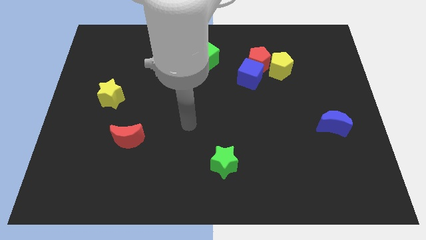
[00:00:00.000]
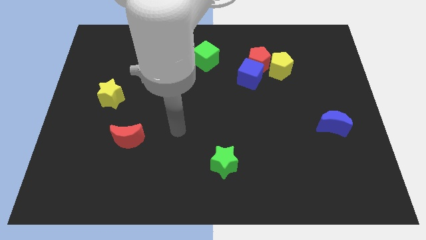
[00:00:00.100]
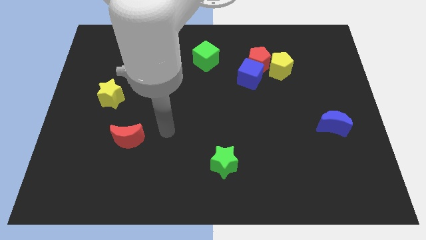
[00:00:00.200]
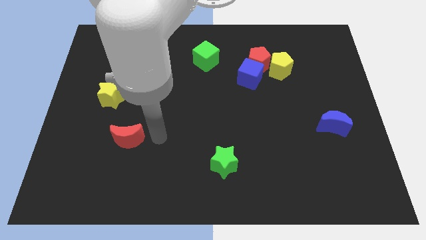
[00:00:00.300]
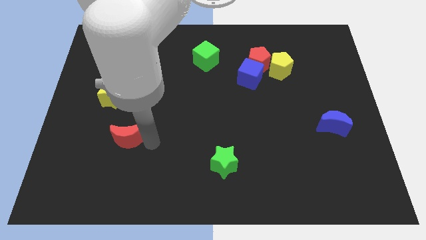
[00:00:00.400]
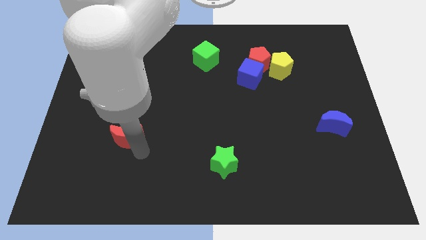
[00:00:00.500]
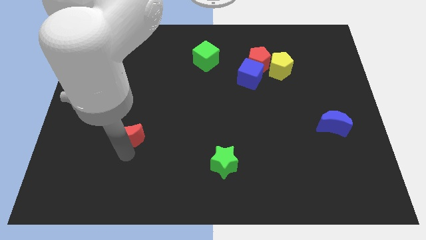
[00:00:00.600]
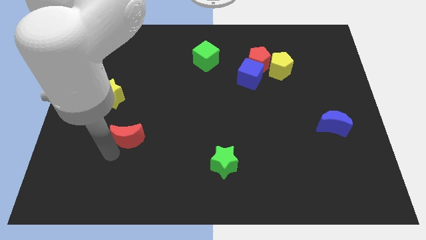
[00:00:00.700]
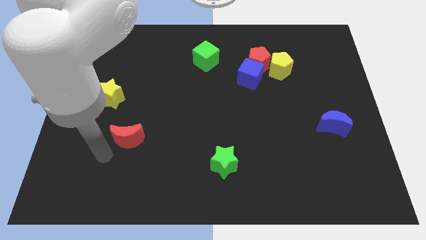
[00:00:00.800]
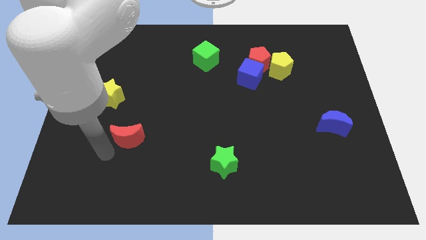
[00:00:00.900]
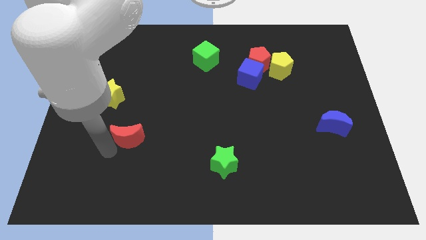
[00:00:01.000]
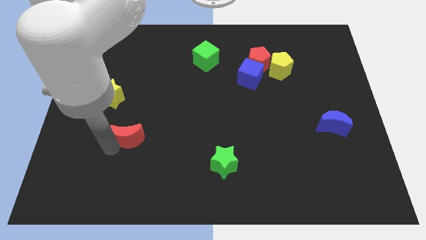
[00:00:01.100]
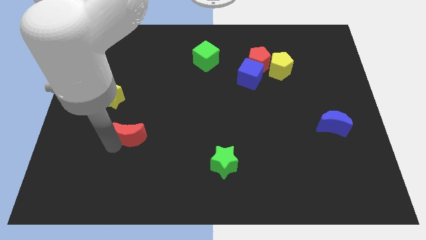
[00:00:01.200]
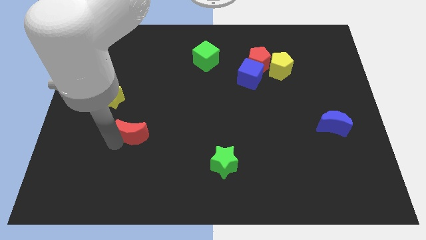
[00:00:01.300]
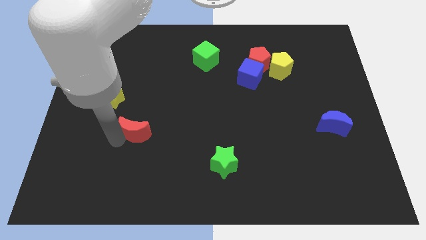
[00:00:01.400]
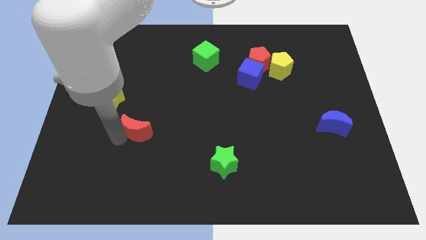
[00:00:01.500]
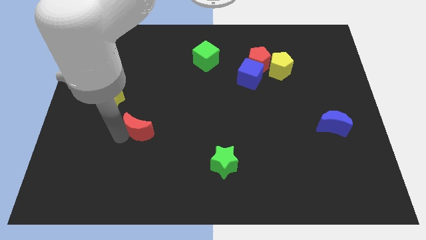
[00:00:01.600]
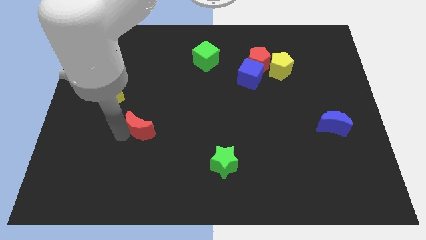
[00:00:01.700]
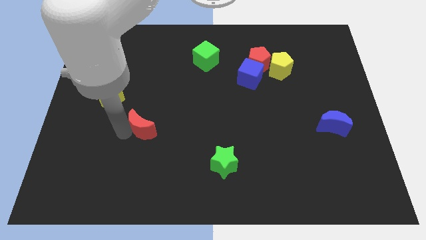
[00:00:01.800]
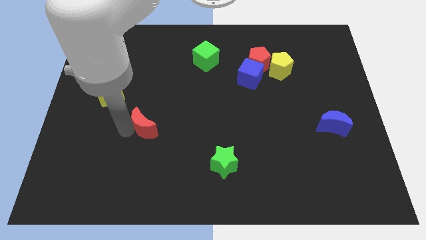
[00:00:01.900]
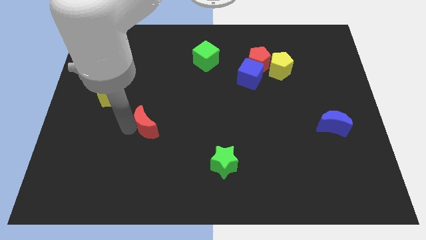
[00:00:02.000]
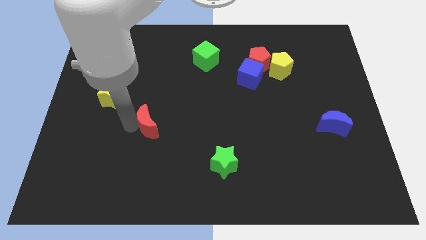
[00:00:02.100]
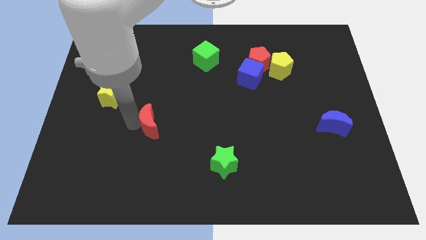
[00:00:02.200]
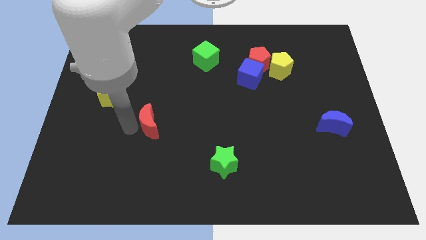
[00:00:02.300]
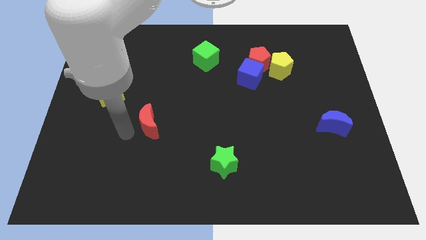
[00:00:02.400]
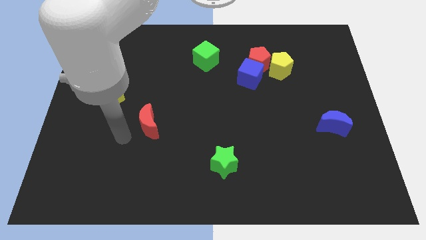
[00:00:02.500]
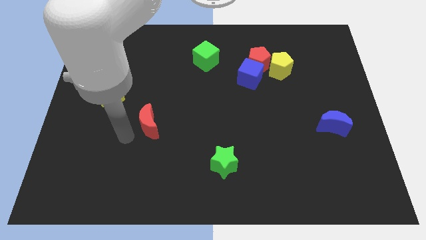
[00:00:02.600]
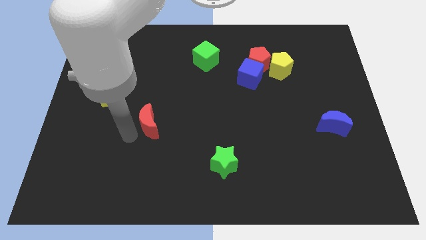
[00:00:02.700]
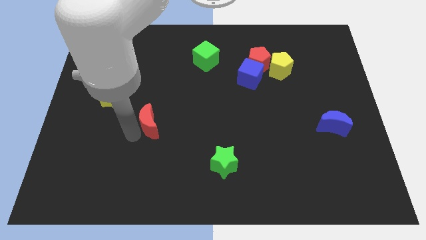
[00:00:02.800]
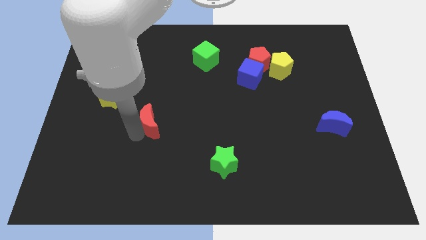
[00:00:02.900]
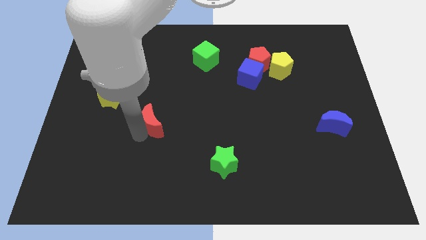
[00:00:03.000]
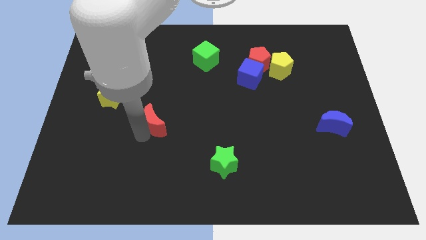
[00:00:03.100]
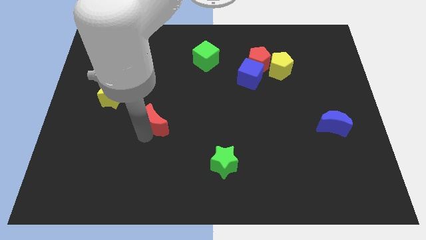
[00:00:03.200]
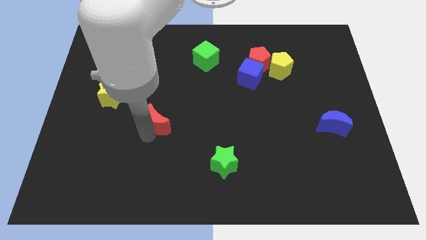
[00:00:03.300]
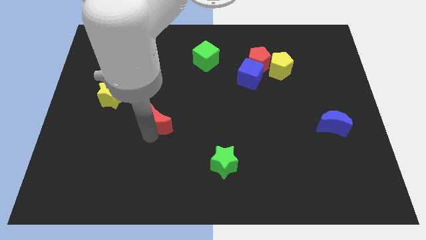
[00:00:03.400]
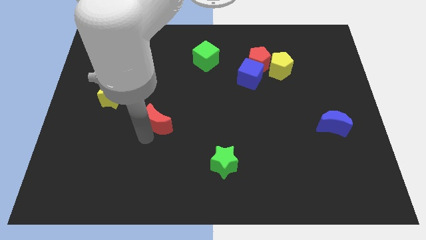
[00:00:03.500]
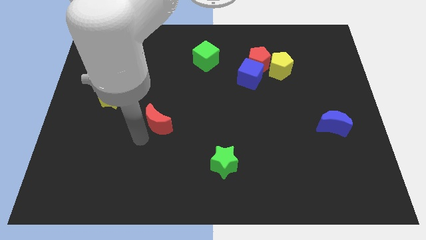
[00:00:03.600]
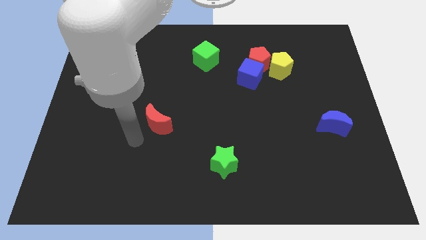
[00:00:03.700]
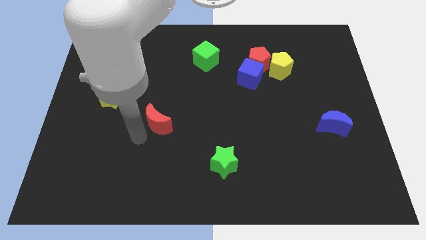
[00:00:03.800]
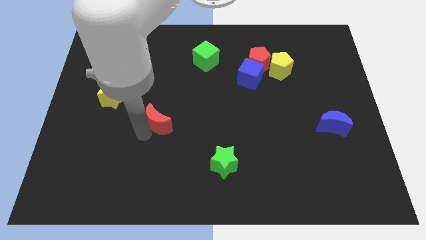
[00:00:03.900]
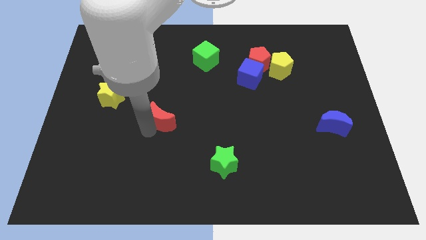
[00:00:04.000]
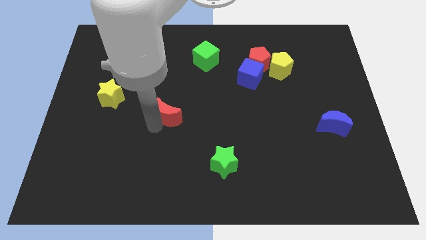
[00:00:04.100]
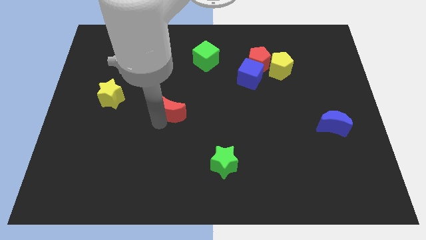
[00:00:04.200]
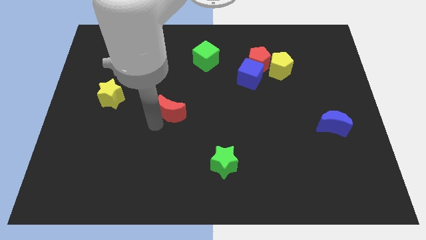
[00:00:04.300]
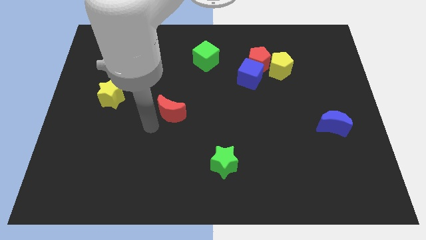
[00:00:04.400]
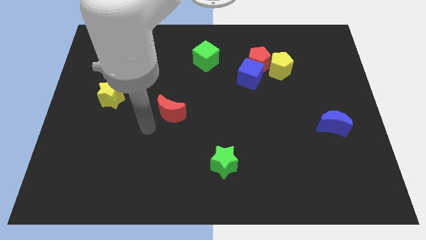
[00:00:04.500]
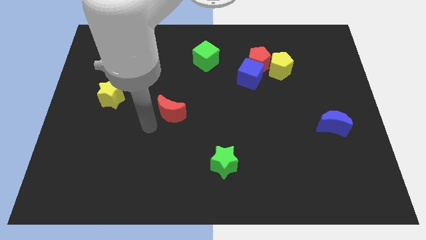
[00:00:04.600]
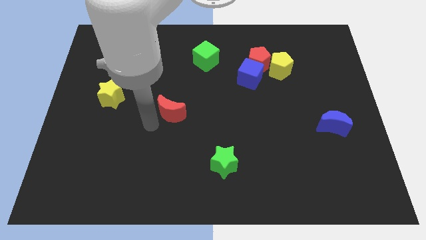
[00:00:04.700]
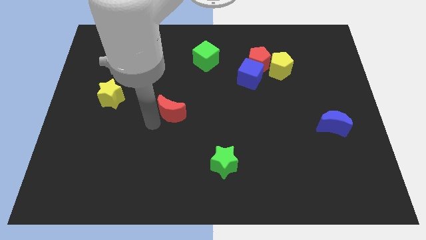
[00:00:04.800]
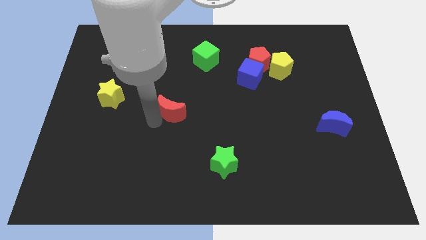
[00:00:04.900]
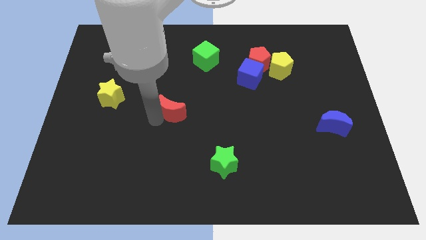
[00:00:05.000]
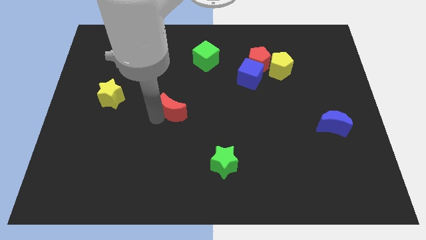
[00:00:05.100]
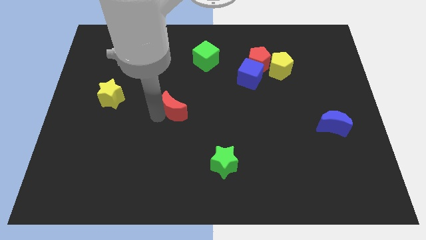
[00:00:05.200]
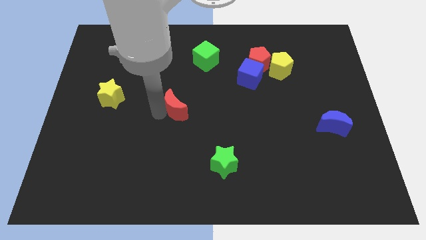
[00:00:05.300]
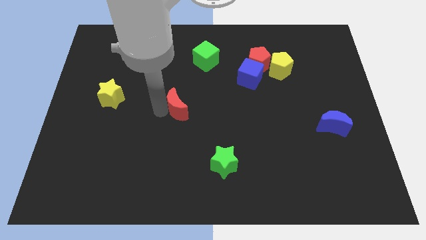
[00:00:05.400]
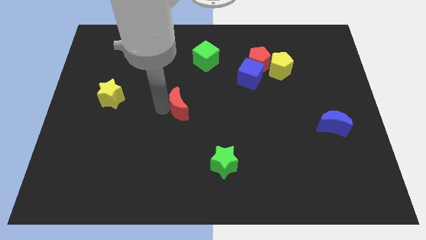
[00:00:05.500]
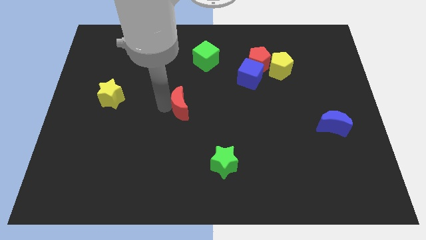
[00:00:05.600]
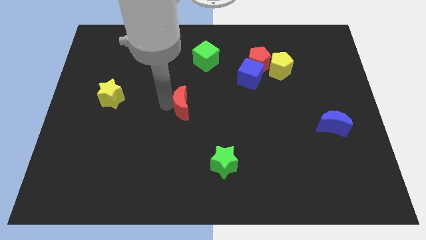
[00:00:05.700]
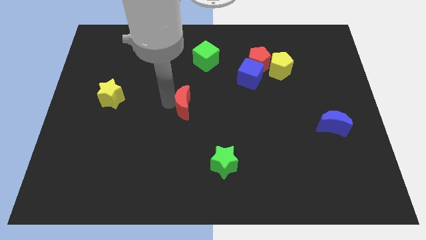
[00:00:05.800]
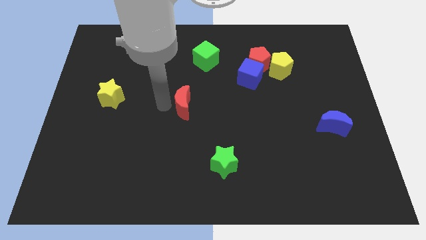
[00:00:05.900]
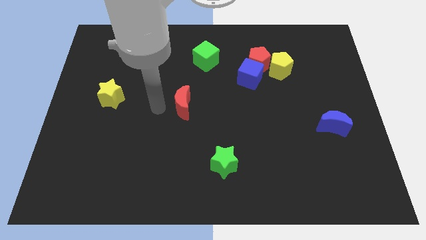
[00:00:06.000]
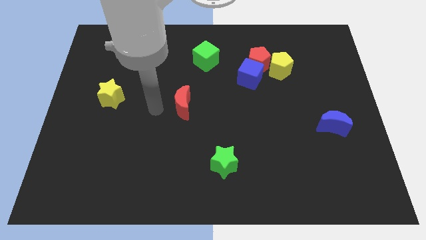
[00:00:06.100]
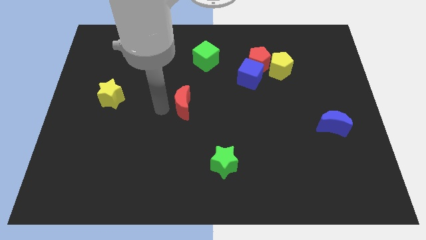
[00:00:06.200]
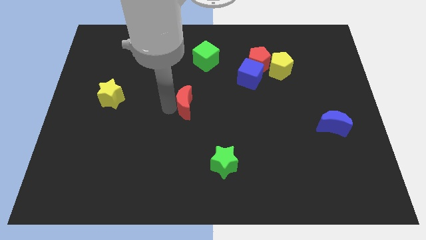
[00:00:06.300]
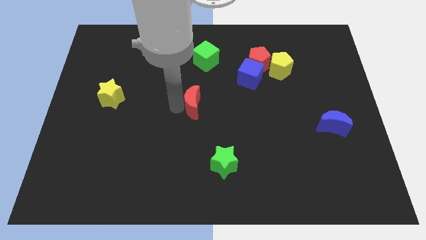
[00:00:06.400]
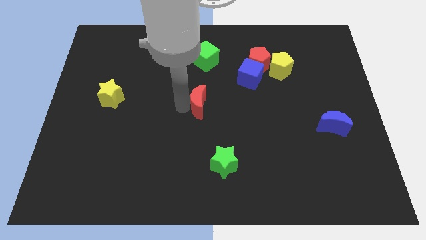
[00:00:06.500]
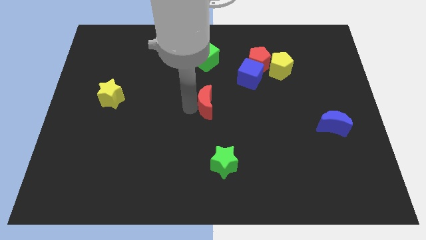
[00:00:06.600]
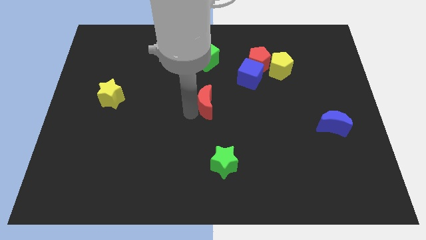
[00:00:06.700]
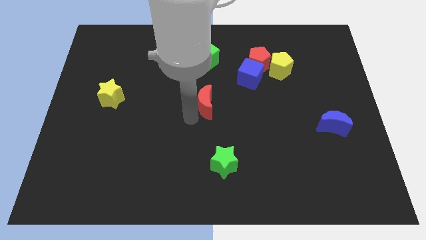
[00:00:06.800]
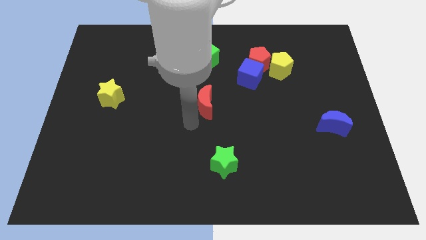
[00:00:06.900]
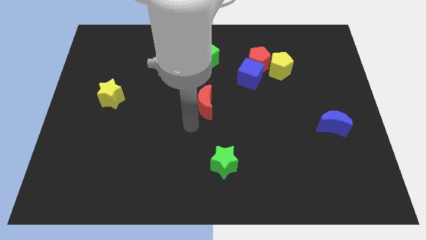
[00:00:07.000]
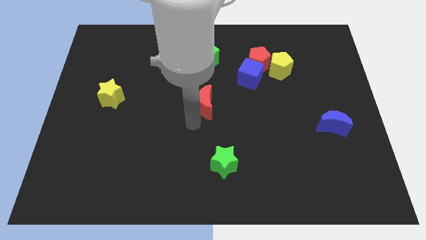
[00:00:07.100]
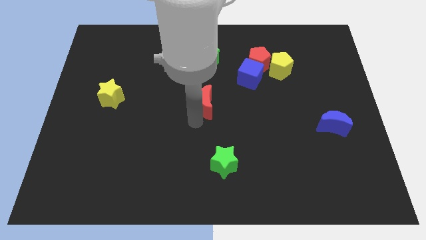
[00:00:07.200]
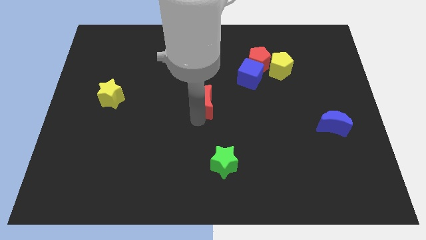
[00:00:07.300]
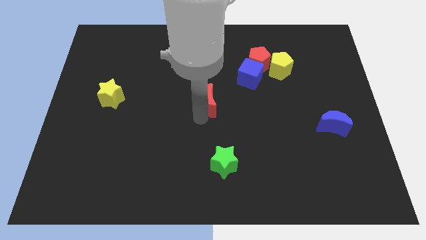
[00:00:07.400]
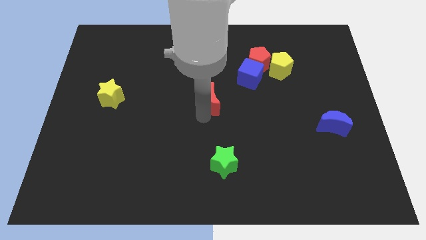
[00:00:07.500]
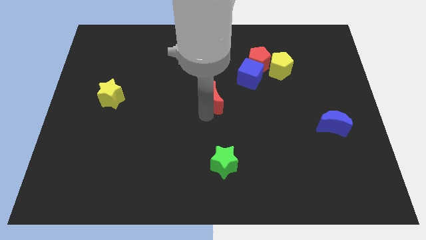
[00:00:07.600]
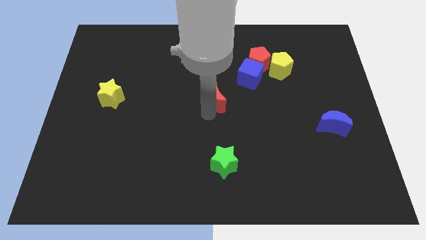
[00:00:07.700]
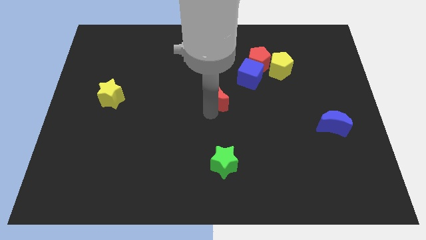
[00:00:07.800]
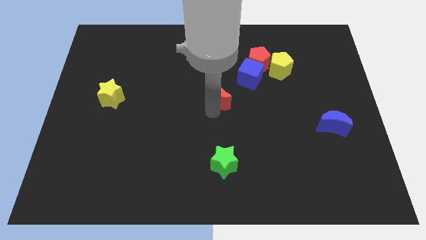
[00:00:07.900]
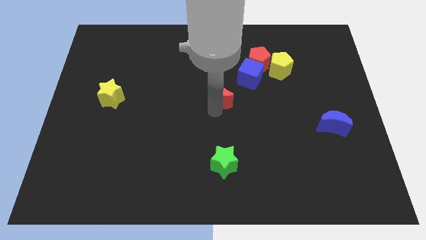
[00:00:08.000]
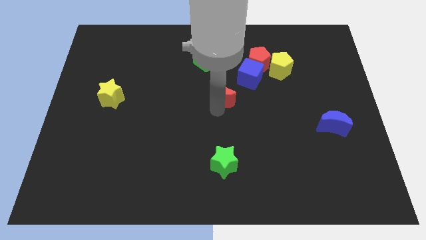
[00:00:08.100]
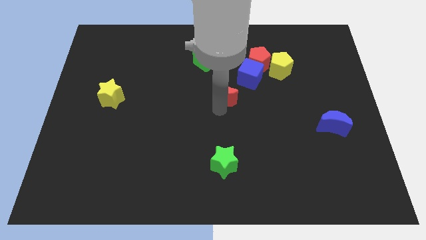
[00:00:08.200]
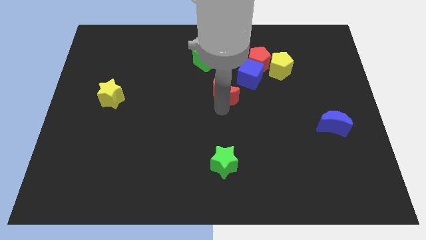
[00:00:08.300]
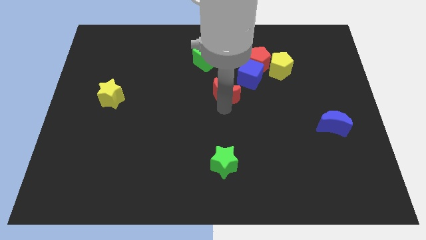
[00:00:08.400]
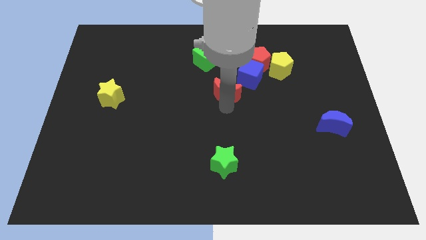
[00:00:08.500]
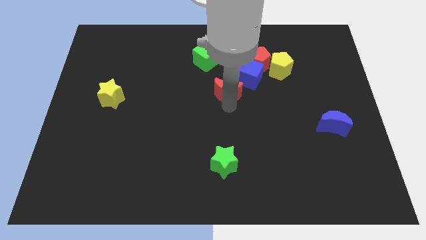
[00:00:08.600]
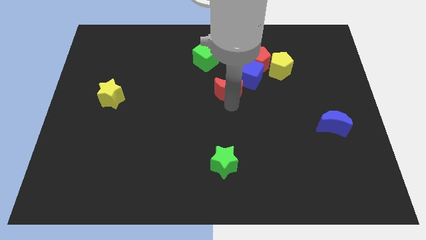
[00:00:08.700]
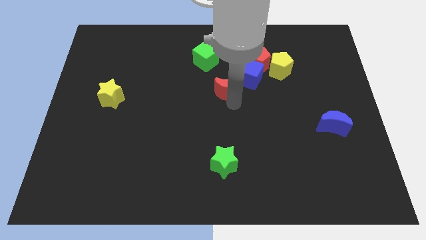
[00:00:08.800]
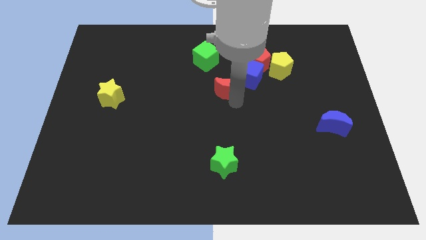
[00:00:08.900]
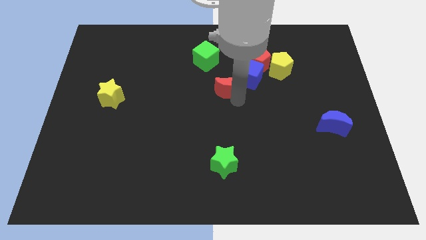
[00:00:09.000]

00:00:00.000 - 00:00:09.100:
put the red moon to the bottom right side of the green cube
